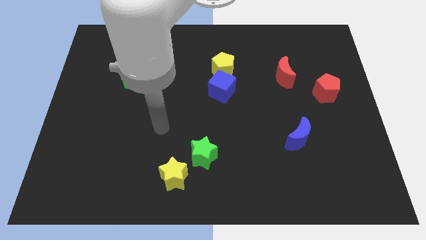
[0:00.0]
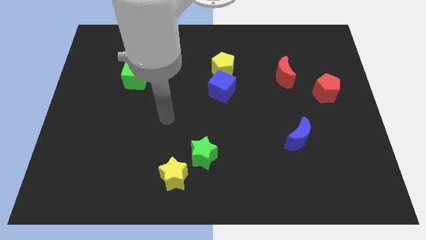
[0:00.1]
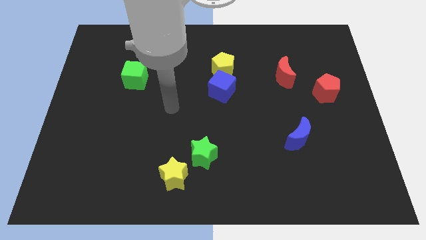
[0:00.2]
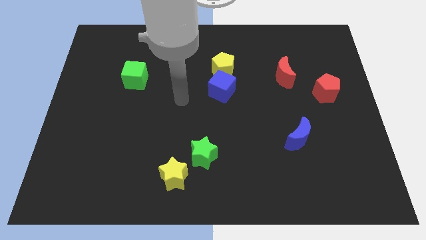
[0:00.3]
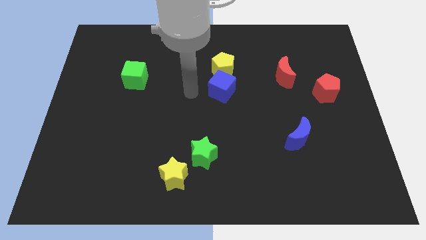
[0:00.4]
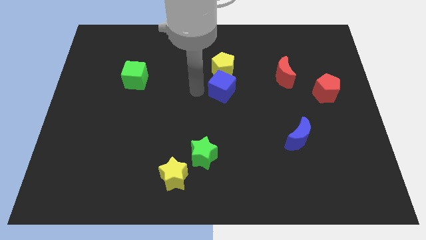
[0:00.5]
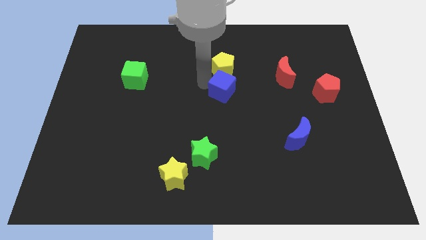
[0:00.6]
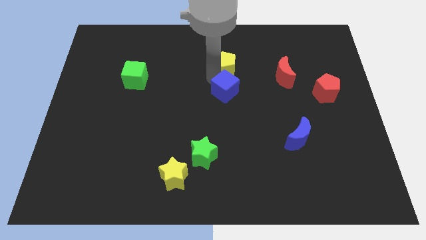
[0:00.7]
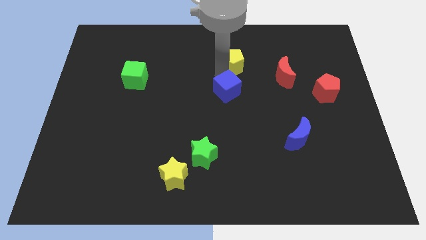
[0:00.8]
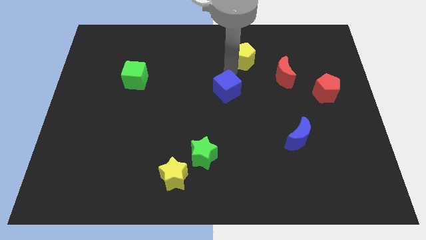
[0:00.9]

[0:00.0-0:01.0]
move the blue cube away from the yellow pentagon

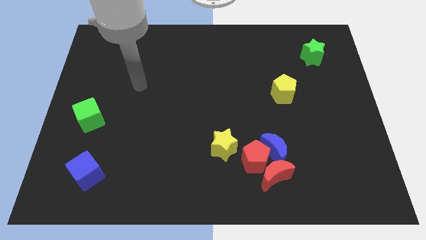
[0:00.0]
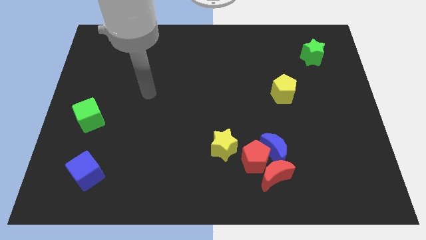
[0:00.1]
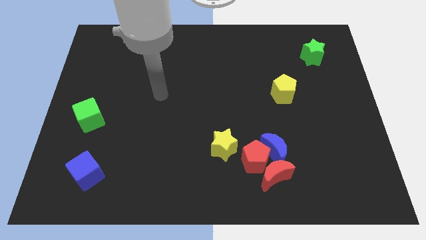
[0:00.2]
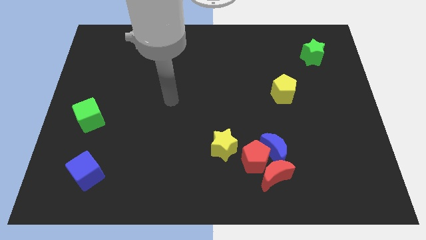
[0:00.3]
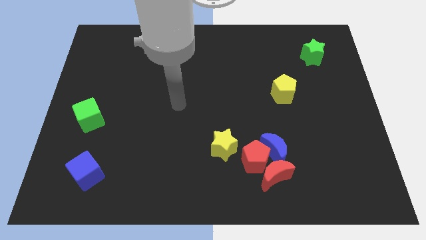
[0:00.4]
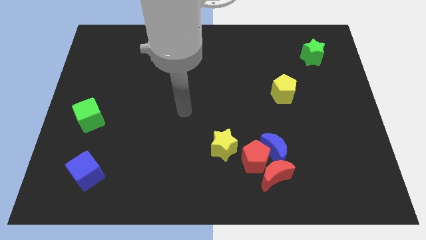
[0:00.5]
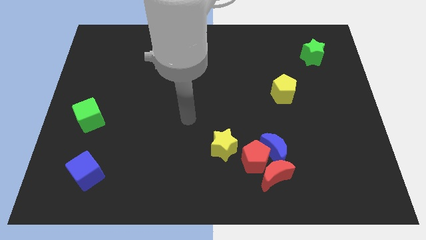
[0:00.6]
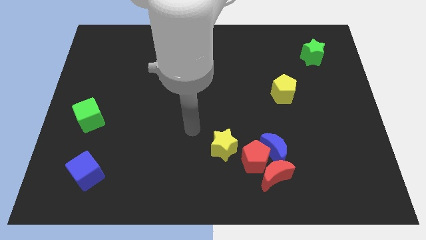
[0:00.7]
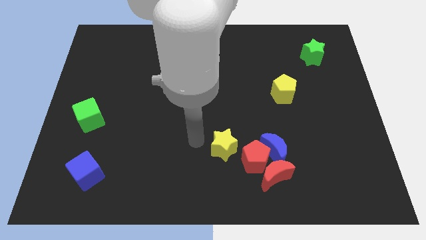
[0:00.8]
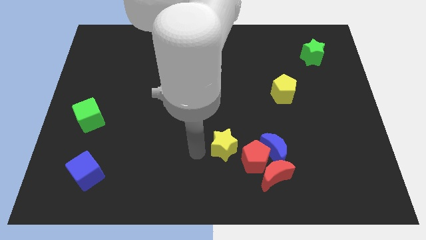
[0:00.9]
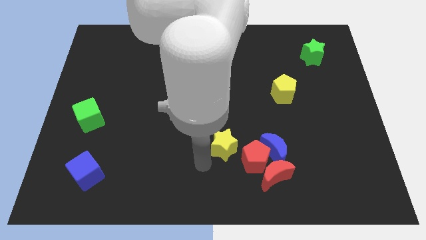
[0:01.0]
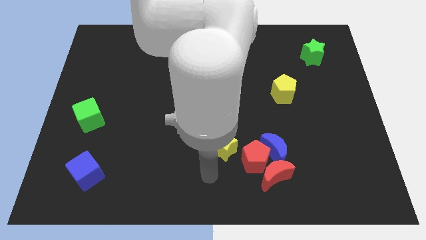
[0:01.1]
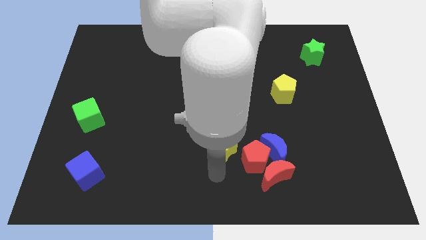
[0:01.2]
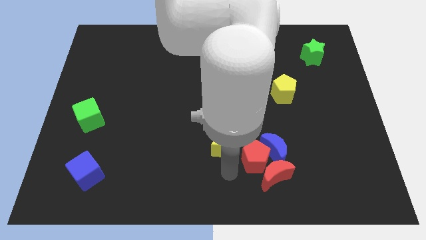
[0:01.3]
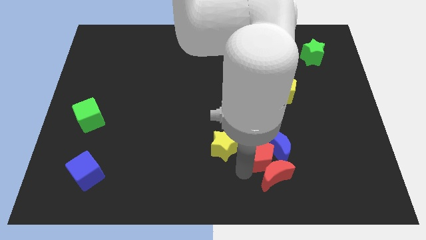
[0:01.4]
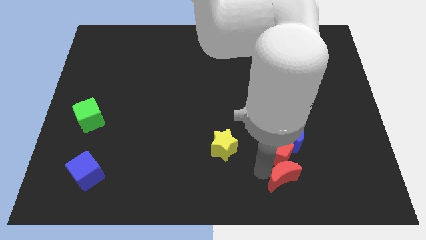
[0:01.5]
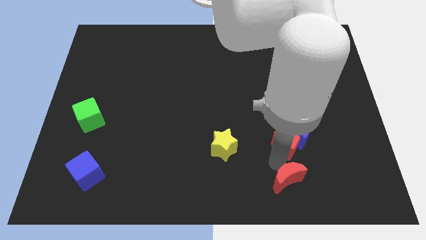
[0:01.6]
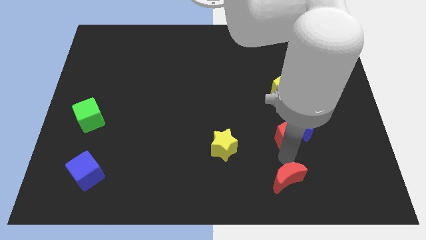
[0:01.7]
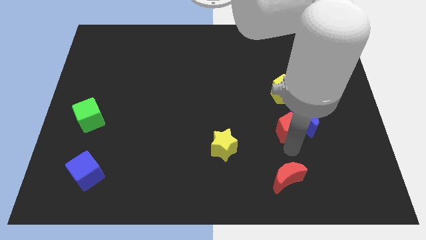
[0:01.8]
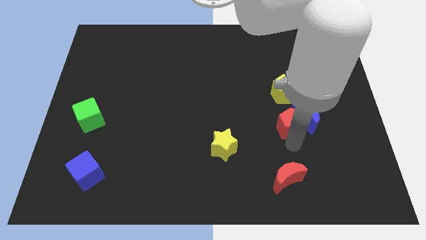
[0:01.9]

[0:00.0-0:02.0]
move the blue moon away from the red pentagon and red moon

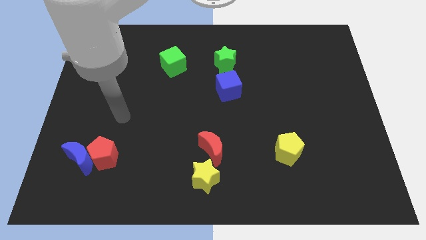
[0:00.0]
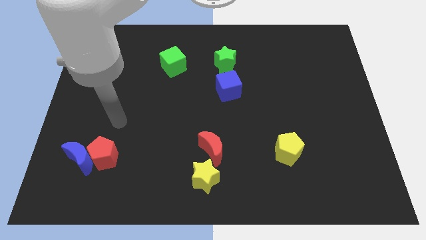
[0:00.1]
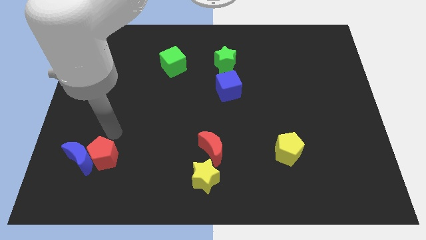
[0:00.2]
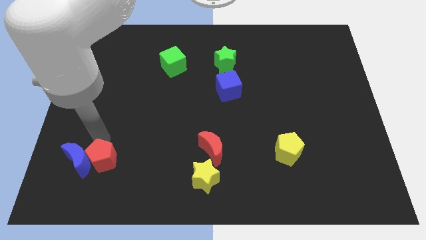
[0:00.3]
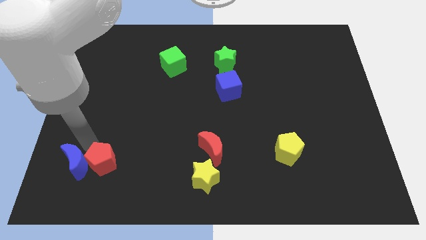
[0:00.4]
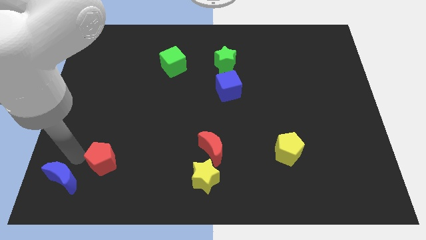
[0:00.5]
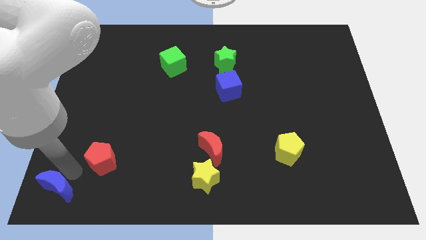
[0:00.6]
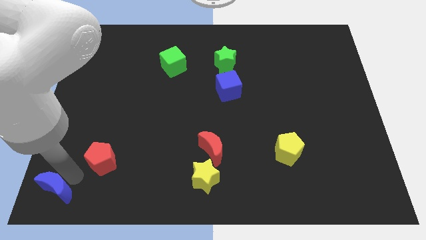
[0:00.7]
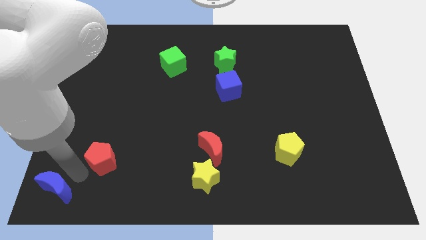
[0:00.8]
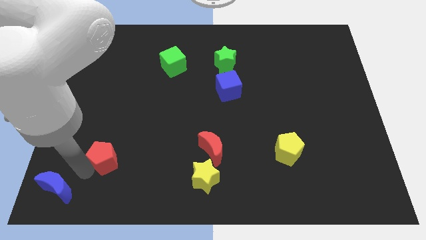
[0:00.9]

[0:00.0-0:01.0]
separate the red pentagon from the blue moon

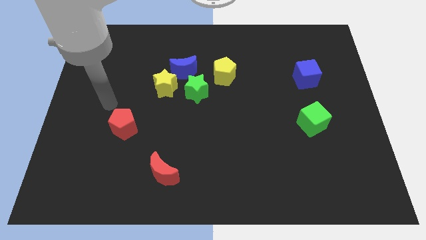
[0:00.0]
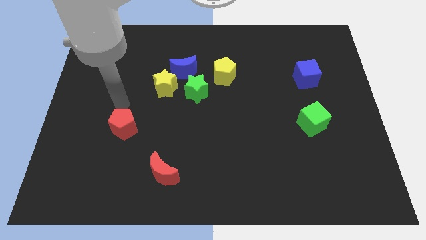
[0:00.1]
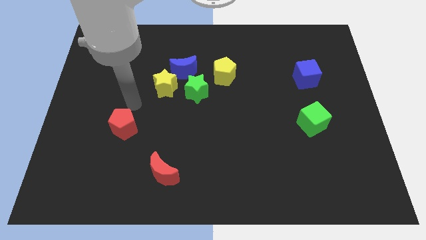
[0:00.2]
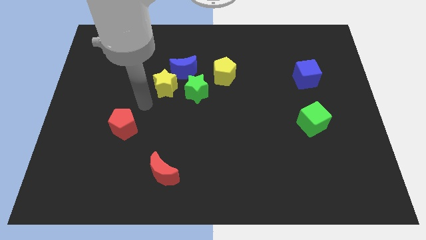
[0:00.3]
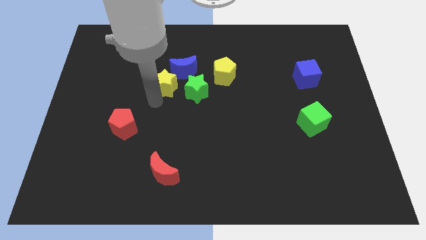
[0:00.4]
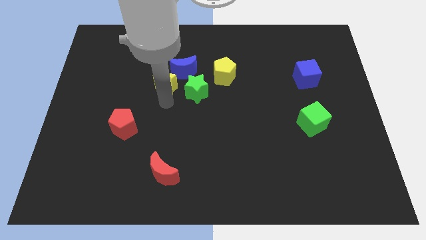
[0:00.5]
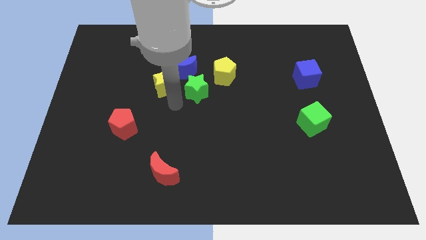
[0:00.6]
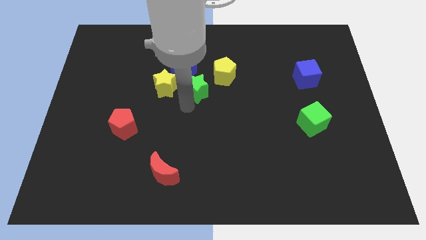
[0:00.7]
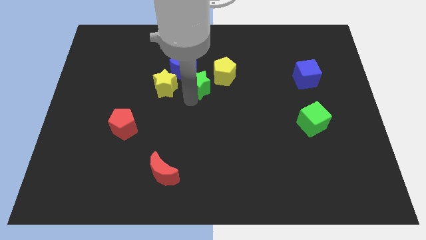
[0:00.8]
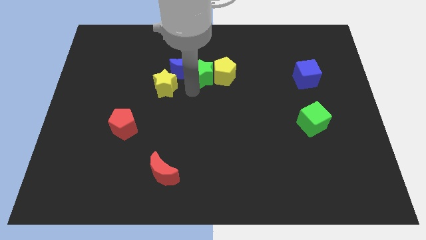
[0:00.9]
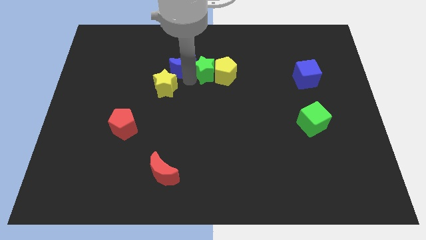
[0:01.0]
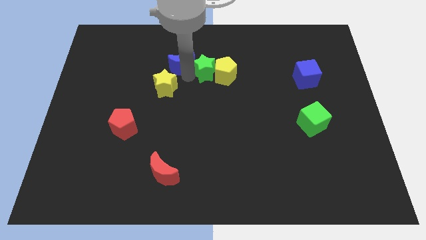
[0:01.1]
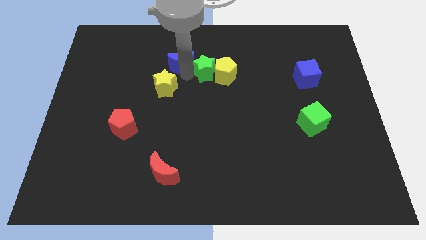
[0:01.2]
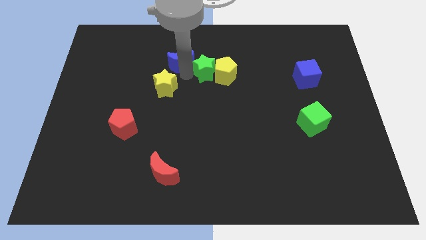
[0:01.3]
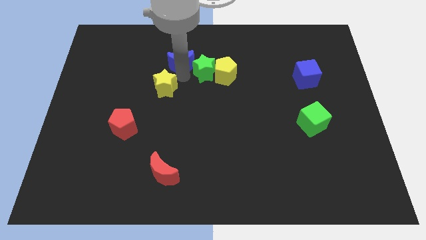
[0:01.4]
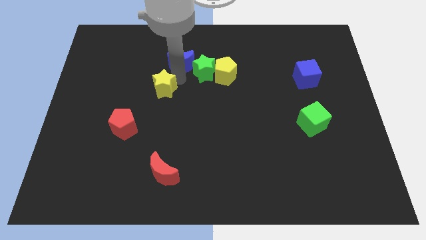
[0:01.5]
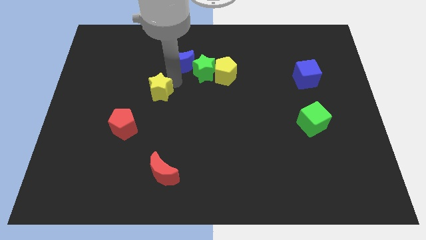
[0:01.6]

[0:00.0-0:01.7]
move the yellow star away from the blue moon and green star

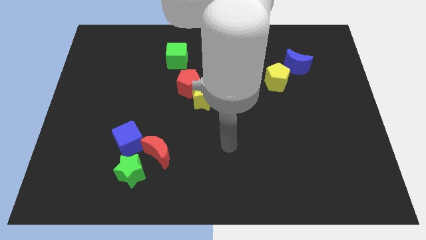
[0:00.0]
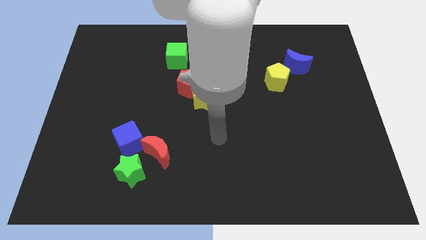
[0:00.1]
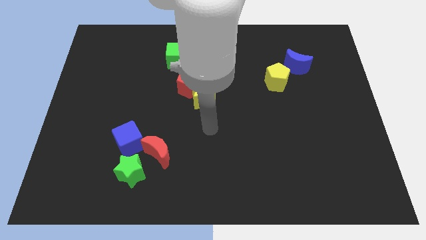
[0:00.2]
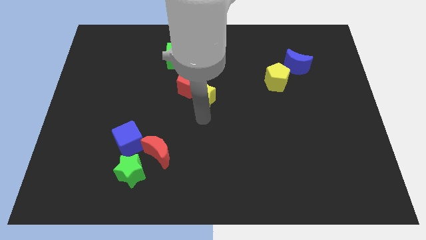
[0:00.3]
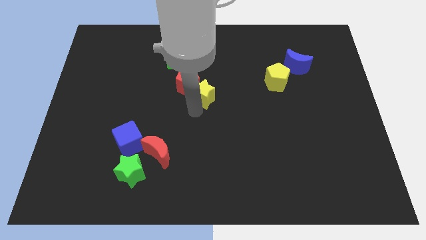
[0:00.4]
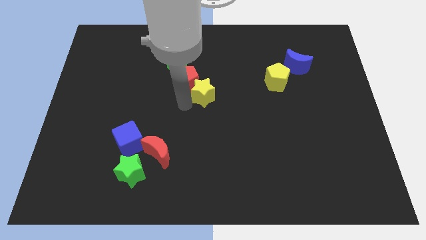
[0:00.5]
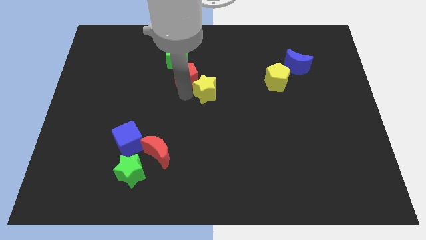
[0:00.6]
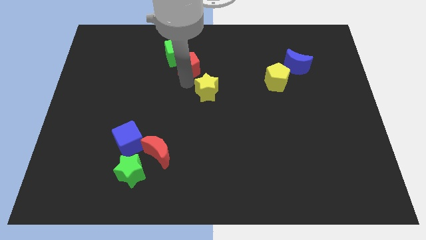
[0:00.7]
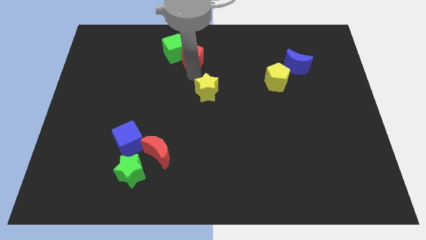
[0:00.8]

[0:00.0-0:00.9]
separate the yellow star from the red pentagon

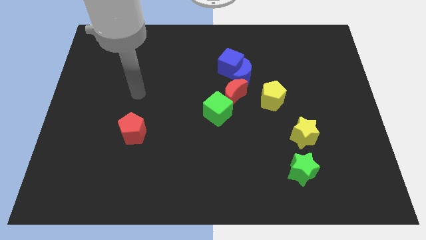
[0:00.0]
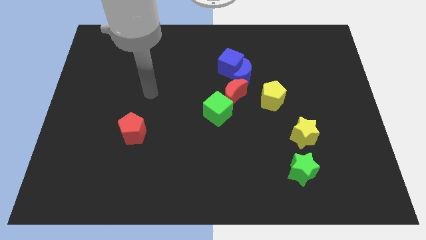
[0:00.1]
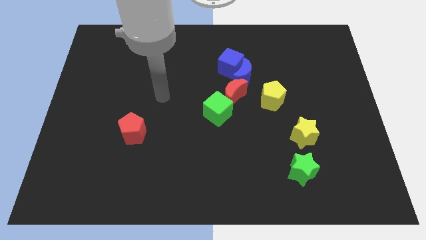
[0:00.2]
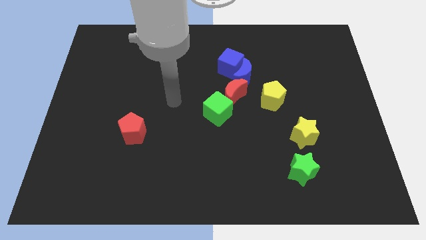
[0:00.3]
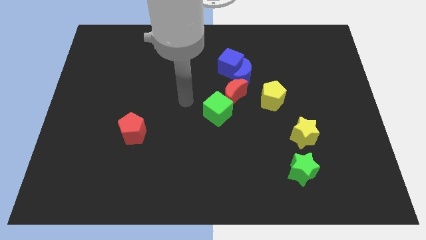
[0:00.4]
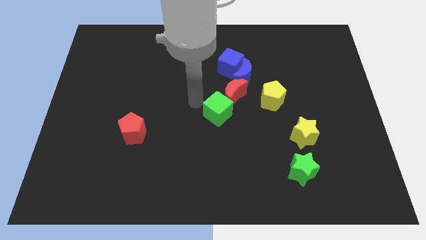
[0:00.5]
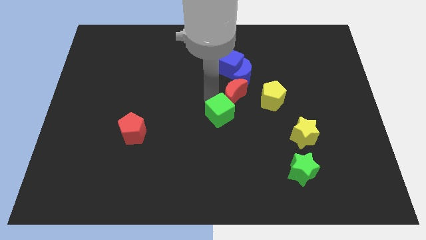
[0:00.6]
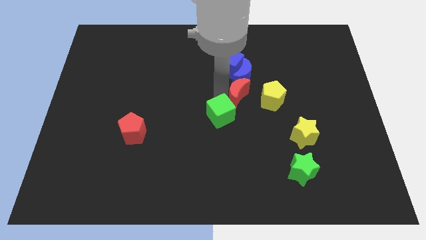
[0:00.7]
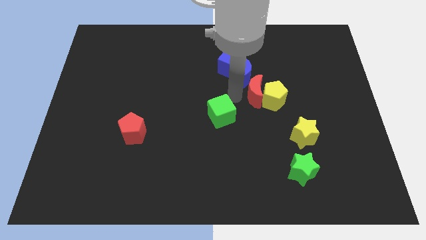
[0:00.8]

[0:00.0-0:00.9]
pull the green cube apart from the red moon

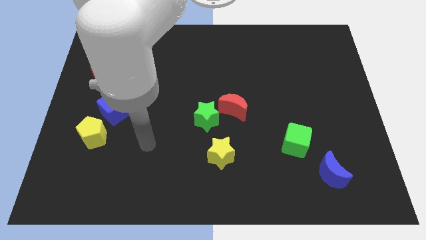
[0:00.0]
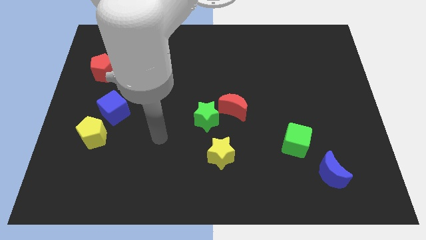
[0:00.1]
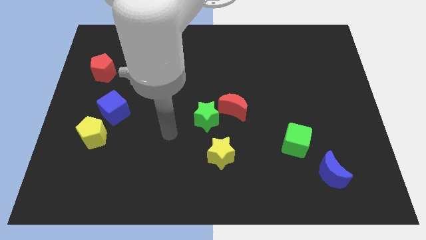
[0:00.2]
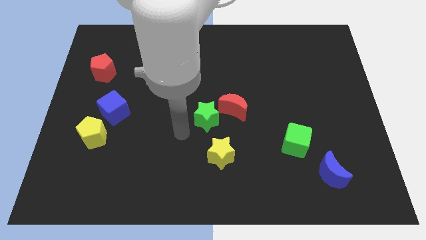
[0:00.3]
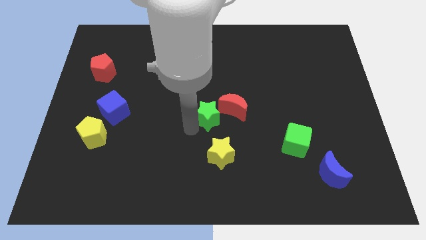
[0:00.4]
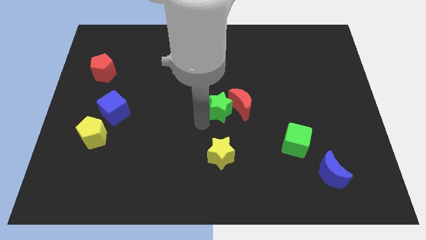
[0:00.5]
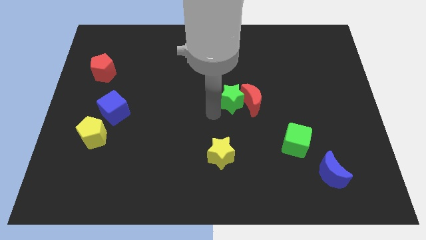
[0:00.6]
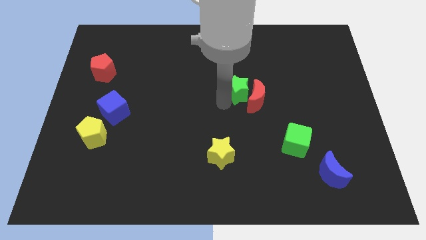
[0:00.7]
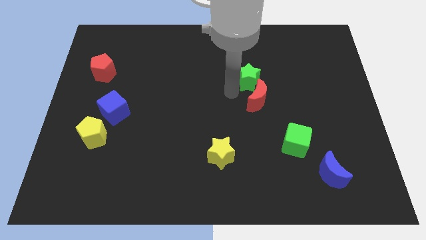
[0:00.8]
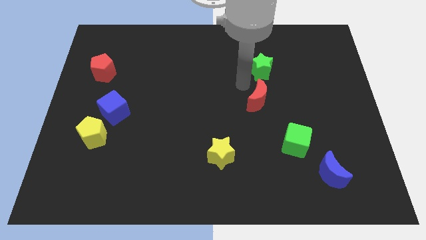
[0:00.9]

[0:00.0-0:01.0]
pull the red moon apart from the green star

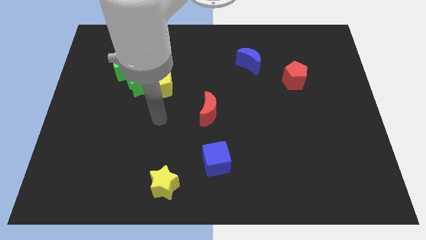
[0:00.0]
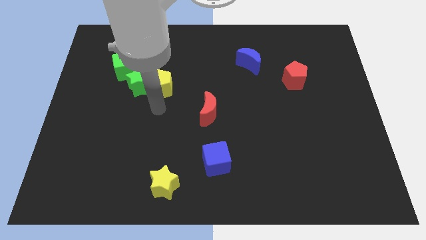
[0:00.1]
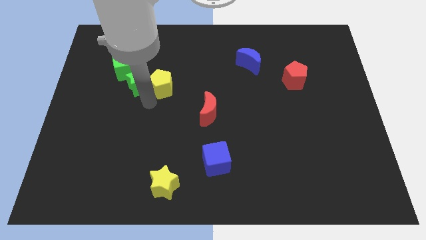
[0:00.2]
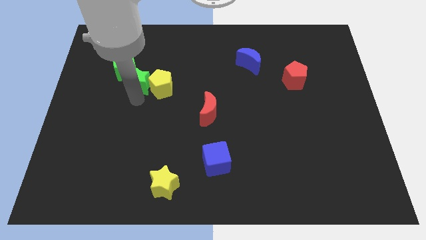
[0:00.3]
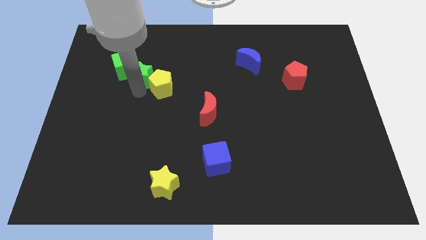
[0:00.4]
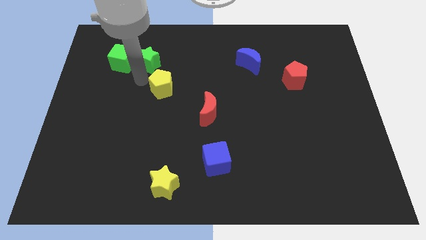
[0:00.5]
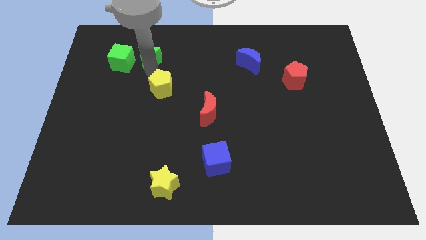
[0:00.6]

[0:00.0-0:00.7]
move the yellow pentagon away from the green star
